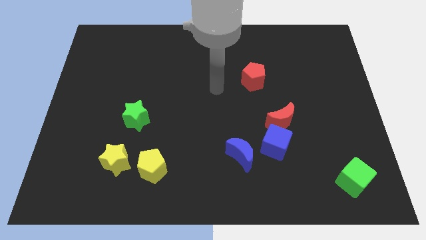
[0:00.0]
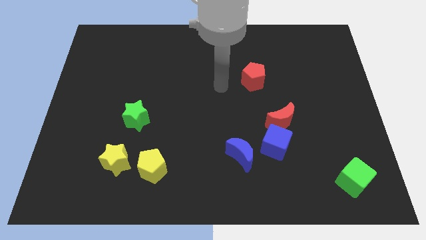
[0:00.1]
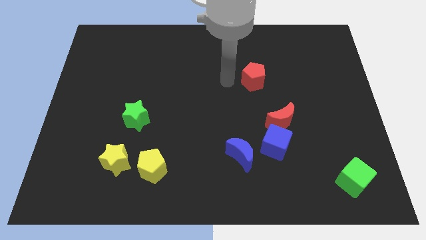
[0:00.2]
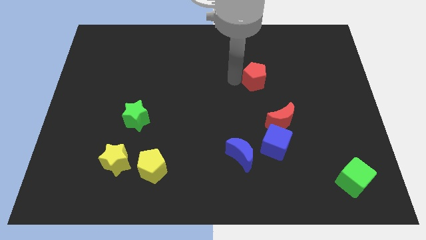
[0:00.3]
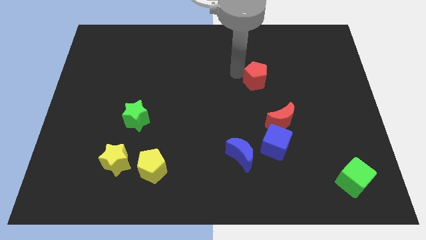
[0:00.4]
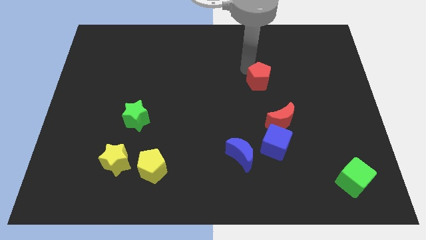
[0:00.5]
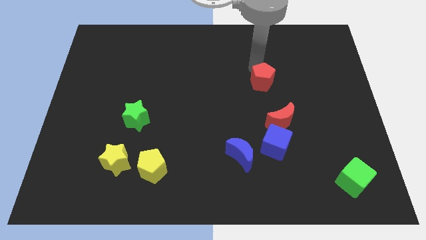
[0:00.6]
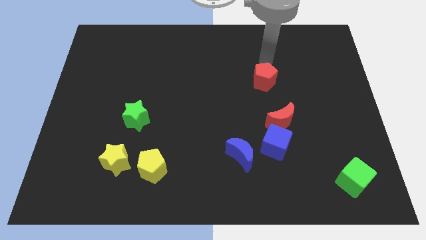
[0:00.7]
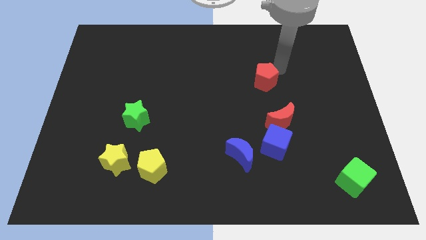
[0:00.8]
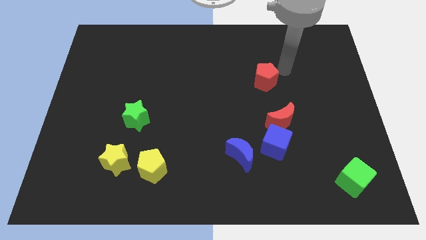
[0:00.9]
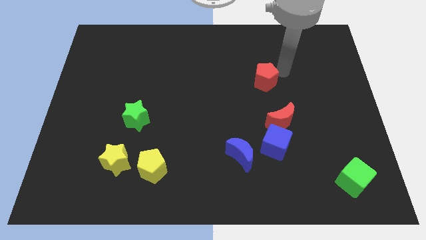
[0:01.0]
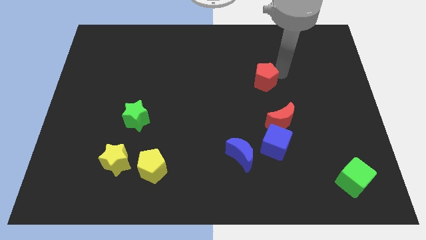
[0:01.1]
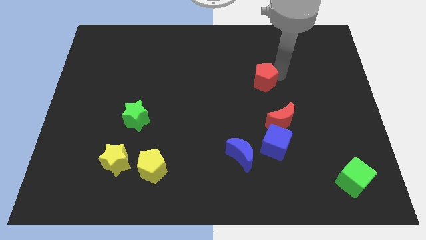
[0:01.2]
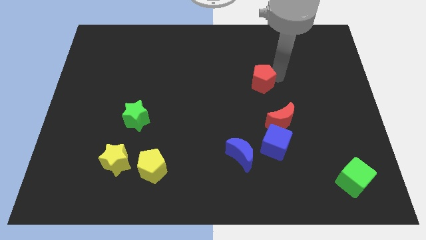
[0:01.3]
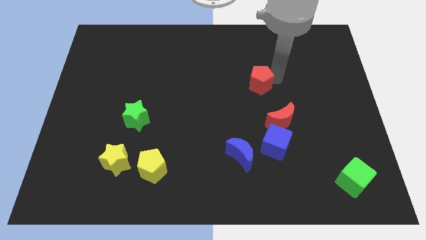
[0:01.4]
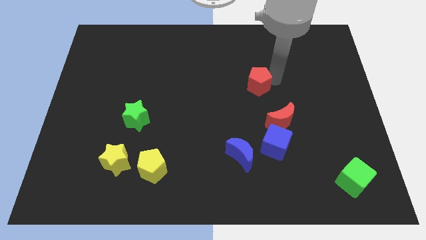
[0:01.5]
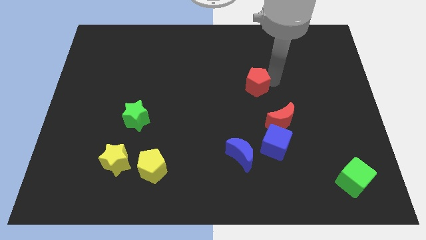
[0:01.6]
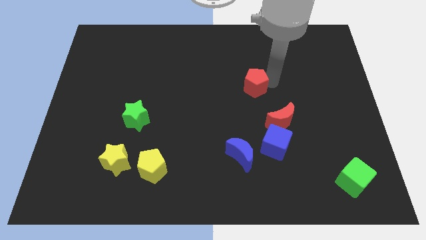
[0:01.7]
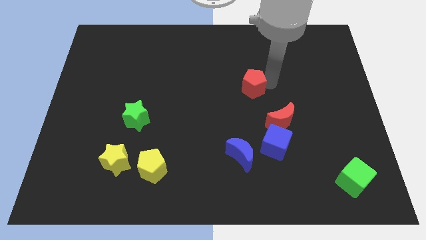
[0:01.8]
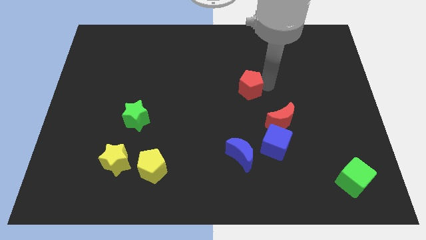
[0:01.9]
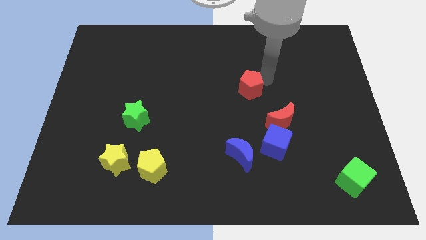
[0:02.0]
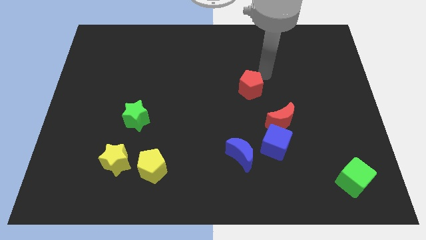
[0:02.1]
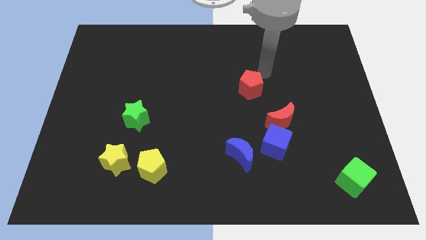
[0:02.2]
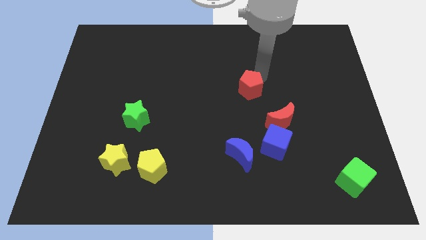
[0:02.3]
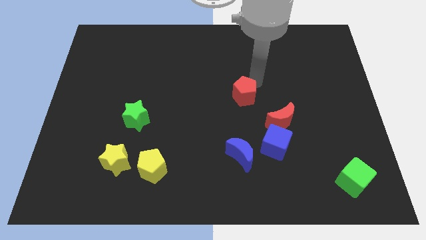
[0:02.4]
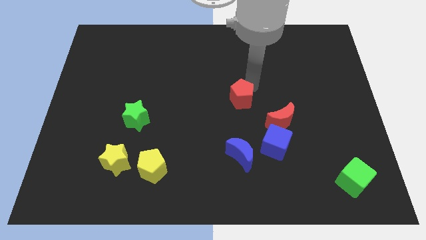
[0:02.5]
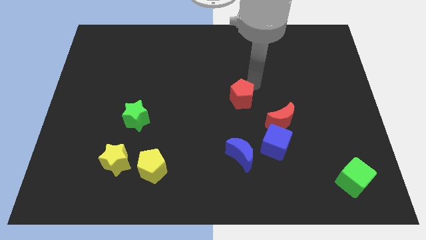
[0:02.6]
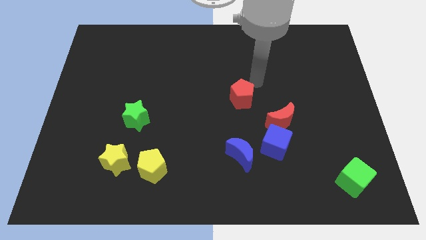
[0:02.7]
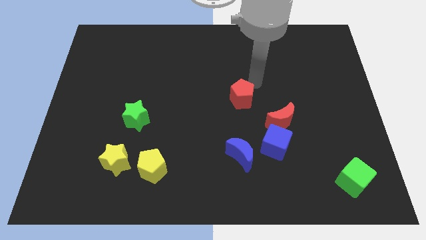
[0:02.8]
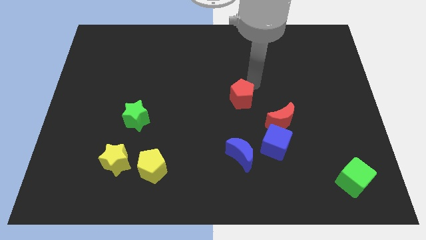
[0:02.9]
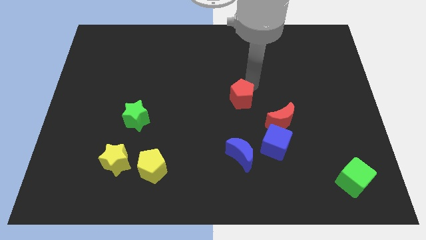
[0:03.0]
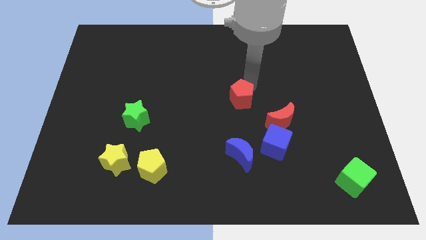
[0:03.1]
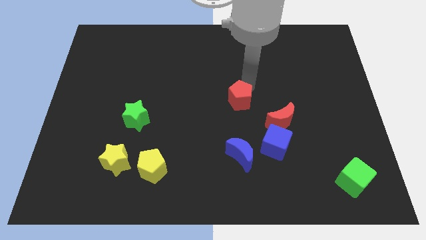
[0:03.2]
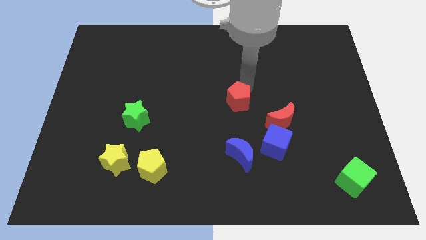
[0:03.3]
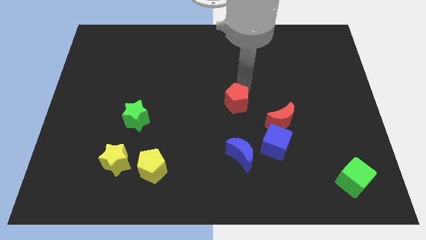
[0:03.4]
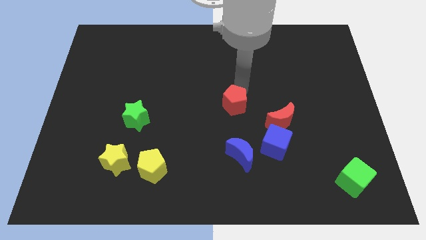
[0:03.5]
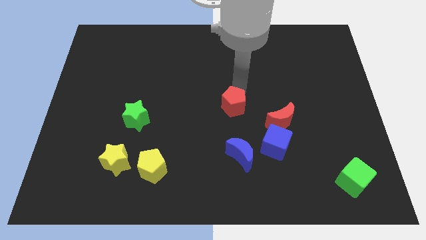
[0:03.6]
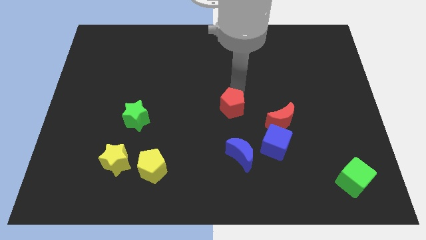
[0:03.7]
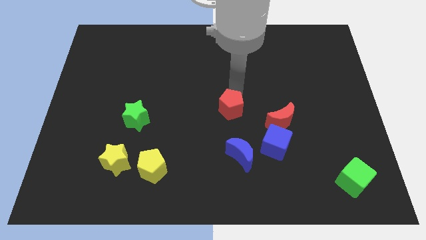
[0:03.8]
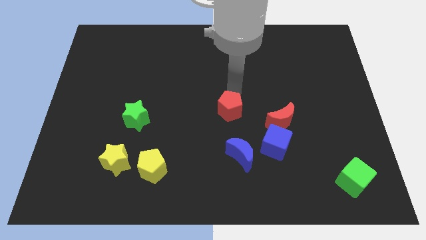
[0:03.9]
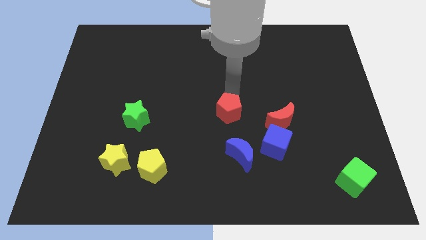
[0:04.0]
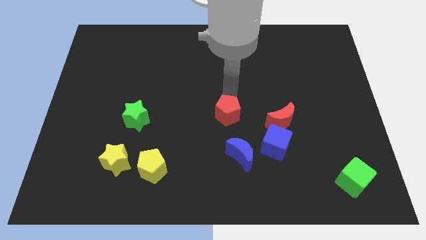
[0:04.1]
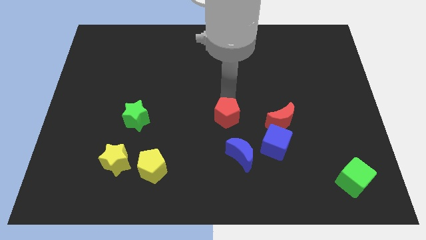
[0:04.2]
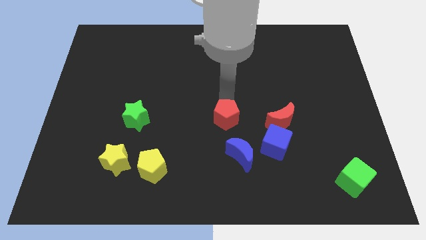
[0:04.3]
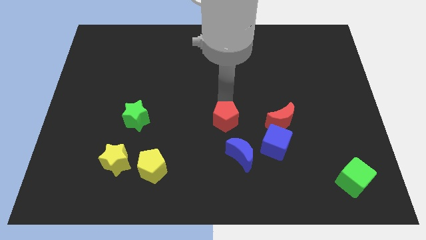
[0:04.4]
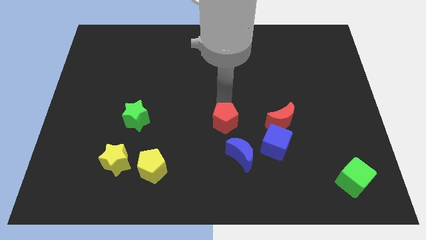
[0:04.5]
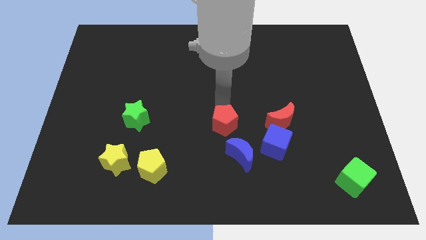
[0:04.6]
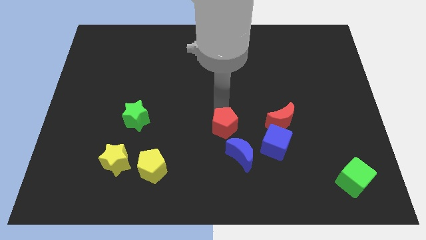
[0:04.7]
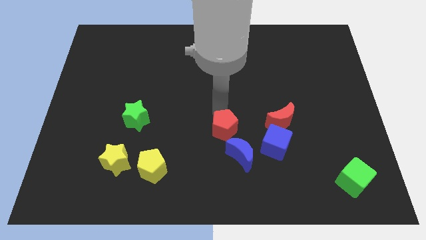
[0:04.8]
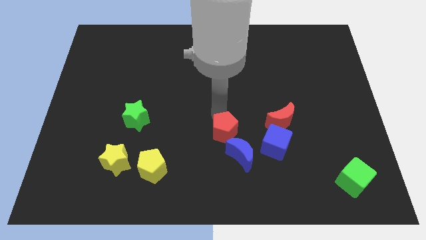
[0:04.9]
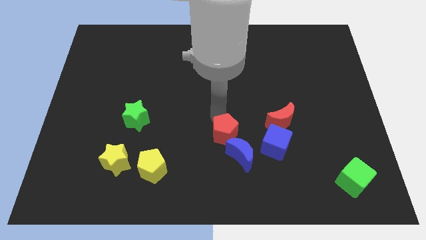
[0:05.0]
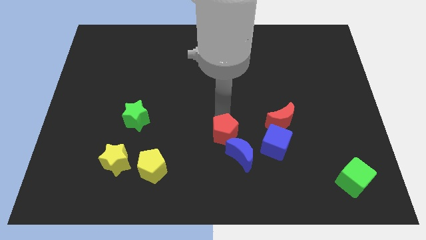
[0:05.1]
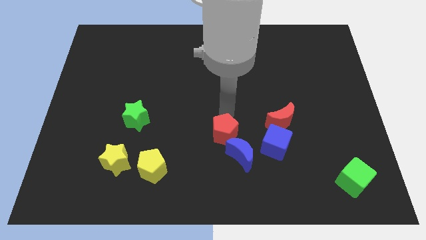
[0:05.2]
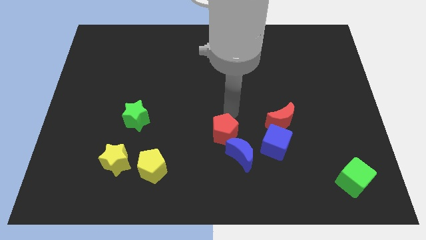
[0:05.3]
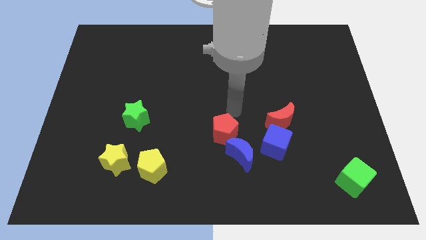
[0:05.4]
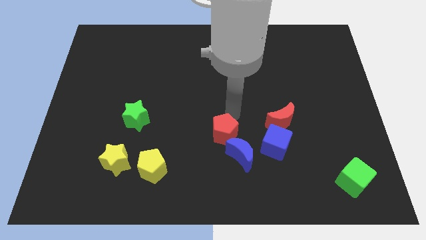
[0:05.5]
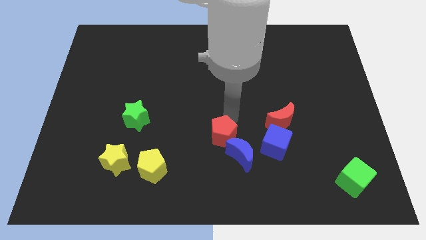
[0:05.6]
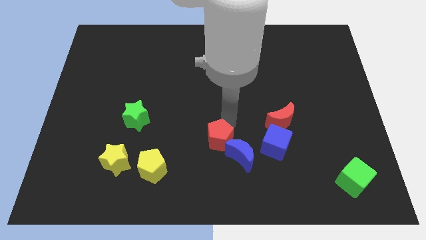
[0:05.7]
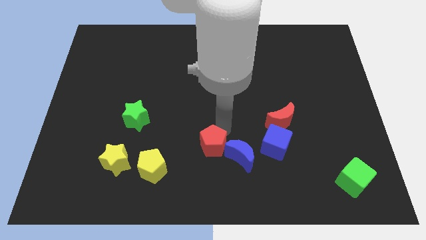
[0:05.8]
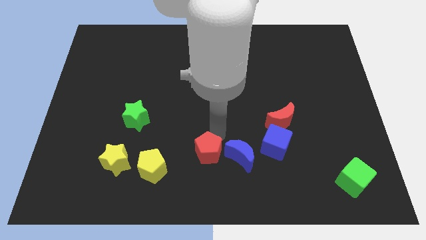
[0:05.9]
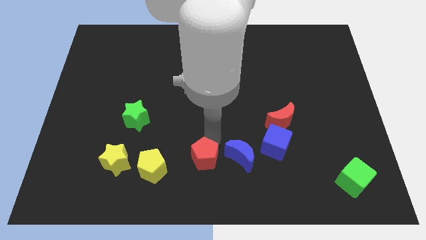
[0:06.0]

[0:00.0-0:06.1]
slide the red pentagon to the bottom
